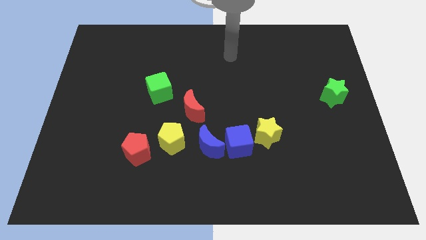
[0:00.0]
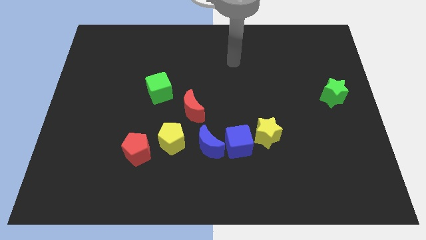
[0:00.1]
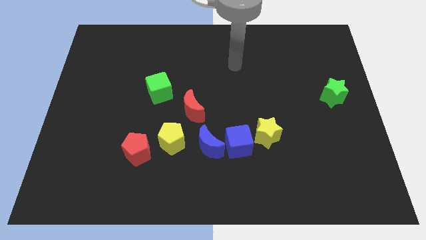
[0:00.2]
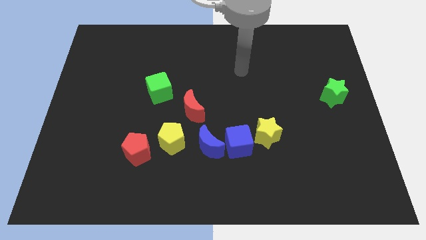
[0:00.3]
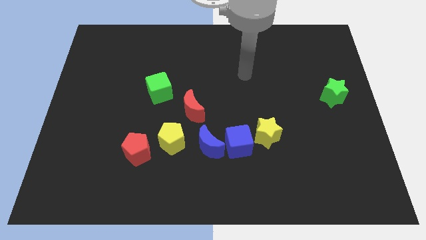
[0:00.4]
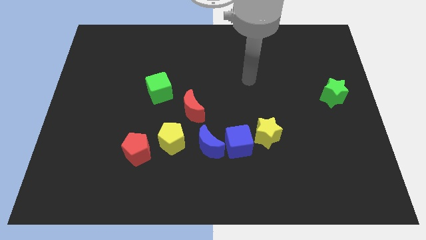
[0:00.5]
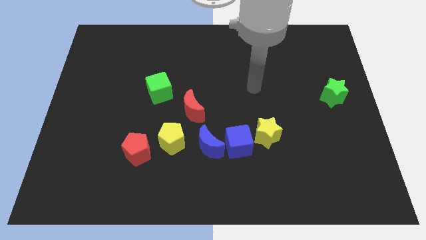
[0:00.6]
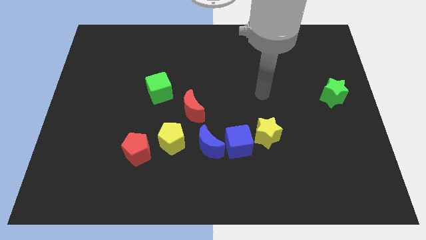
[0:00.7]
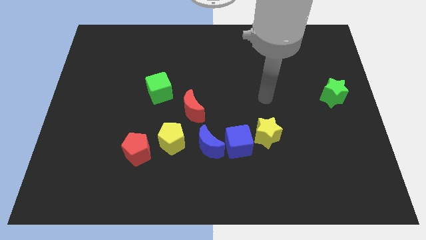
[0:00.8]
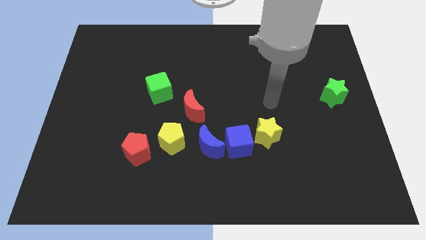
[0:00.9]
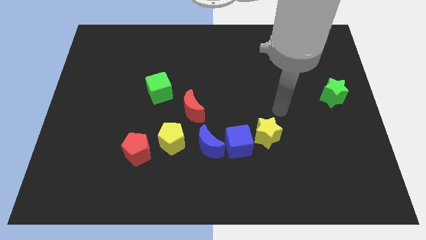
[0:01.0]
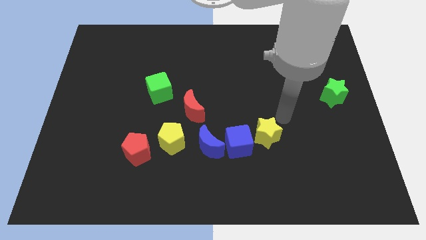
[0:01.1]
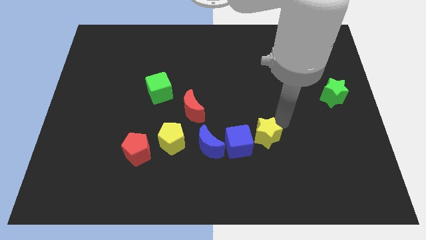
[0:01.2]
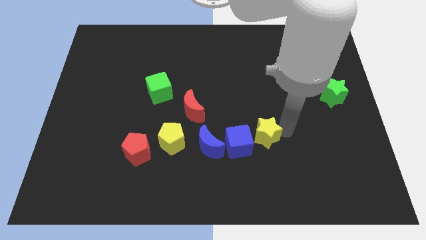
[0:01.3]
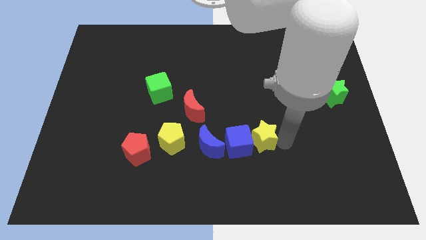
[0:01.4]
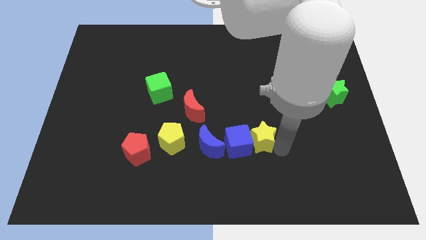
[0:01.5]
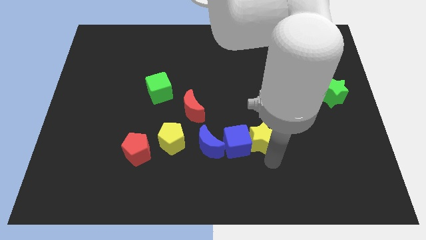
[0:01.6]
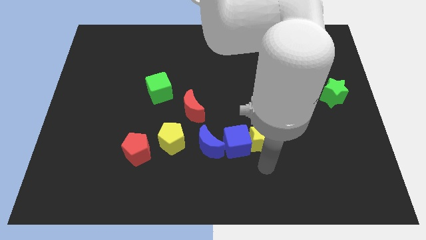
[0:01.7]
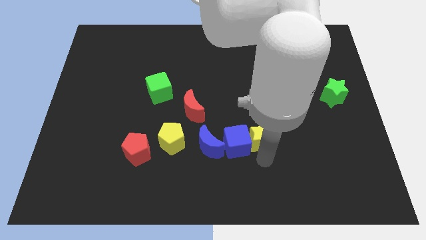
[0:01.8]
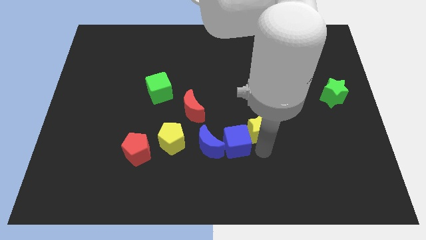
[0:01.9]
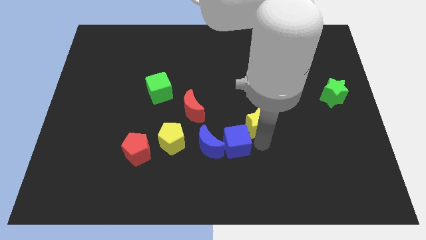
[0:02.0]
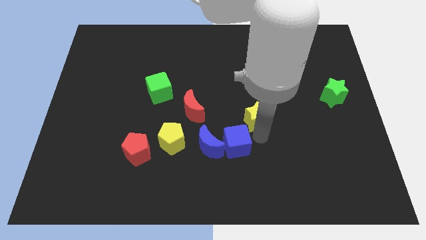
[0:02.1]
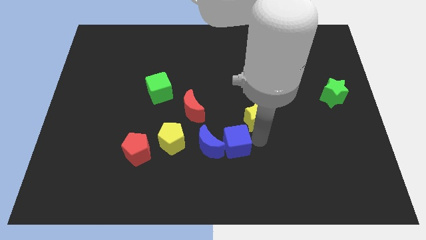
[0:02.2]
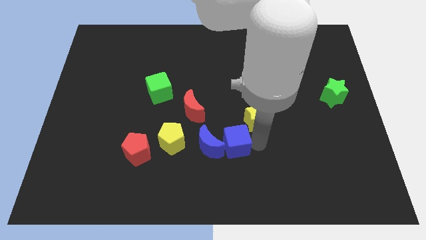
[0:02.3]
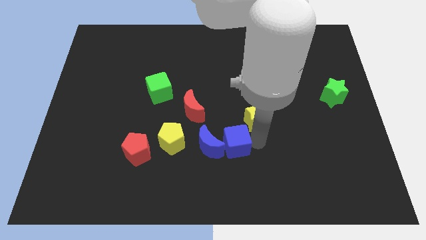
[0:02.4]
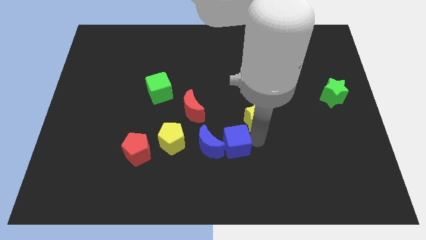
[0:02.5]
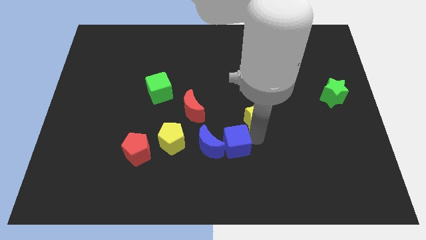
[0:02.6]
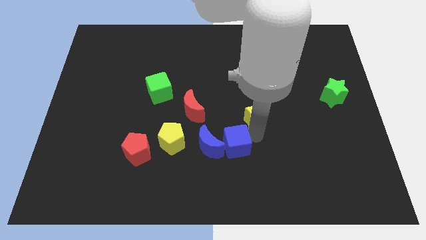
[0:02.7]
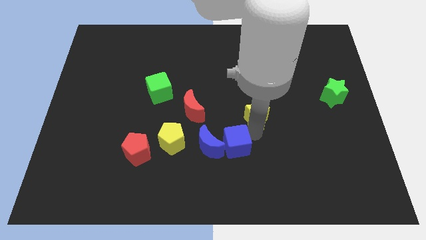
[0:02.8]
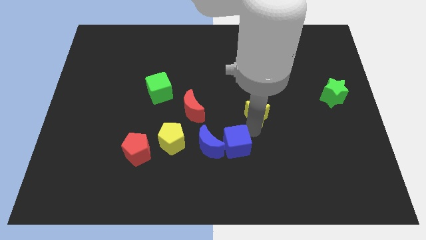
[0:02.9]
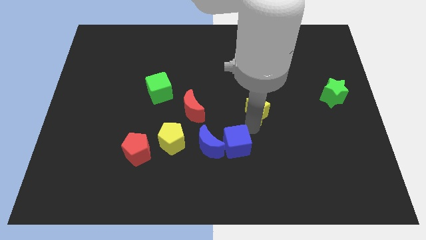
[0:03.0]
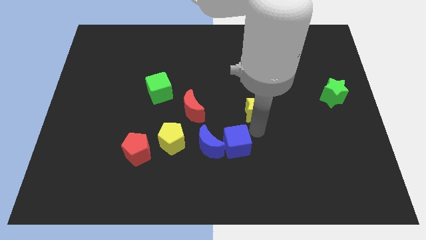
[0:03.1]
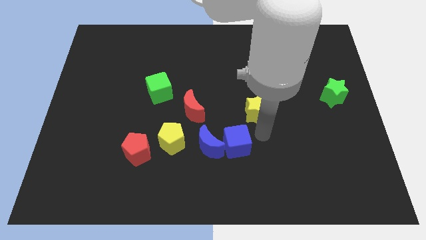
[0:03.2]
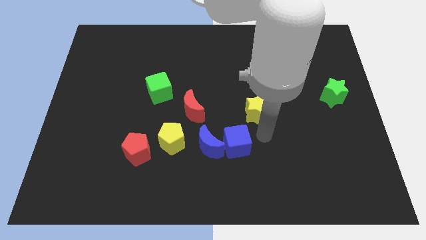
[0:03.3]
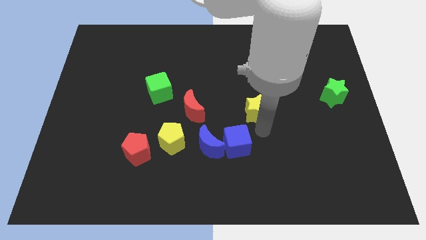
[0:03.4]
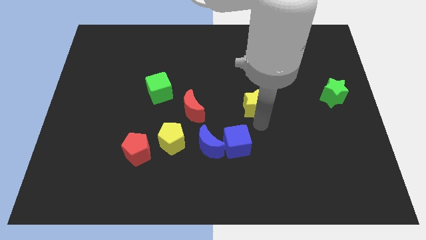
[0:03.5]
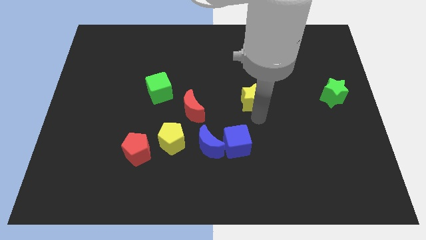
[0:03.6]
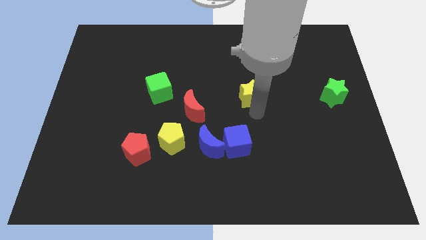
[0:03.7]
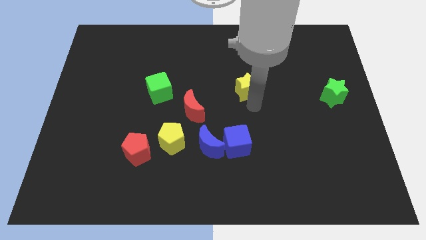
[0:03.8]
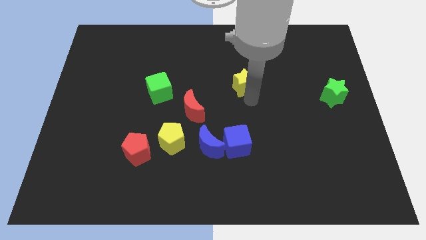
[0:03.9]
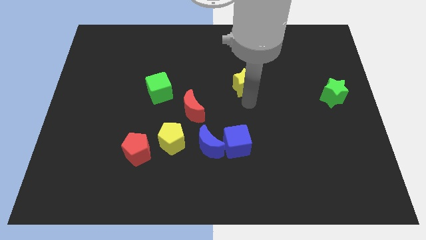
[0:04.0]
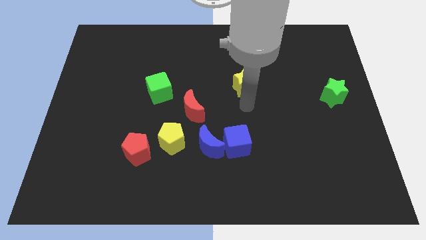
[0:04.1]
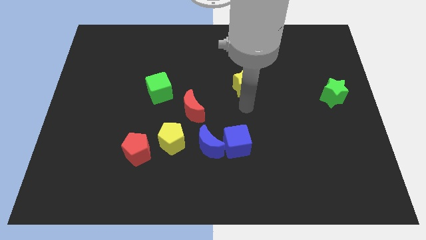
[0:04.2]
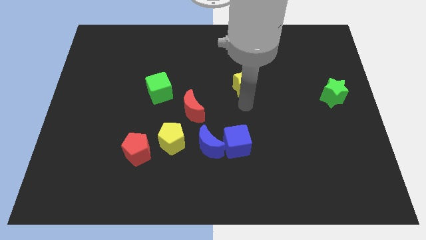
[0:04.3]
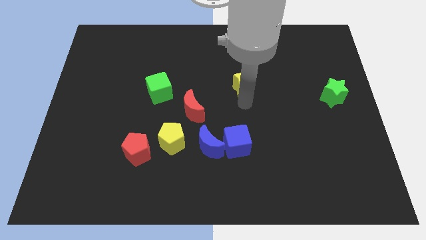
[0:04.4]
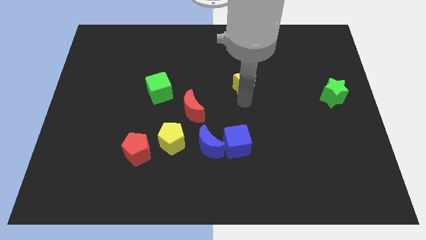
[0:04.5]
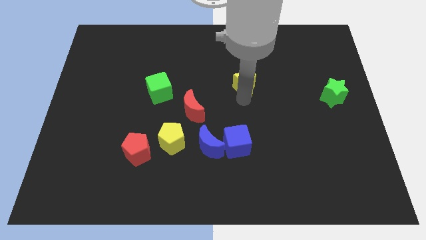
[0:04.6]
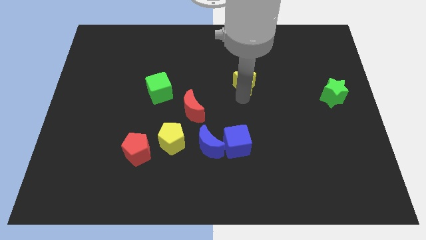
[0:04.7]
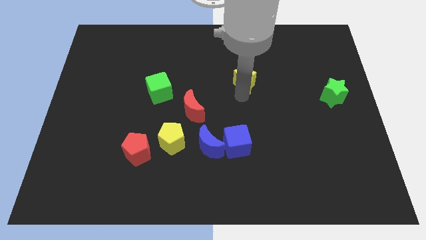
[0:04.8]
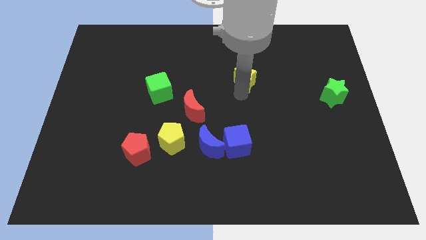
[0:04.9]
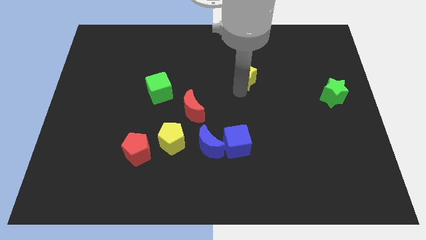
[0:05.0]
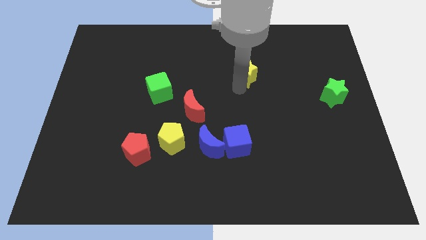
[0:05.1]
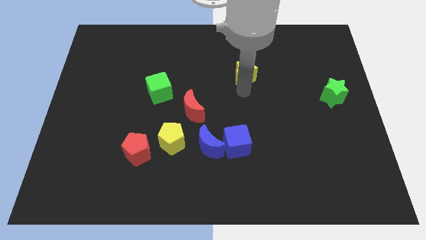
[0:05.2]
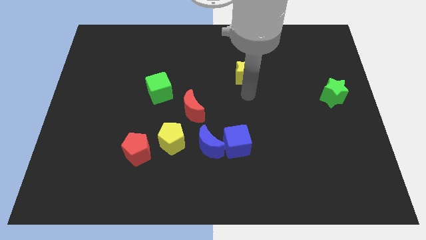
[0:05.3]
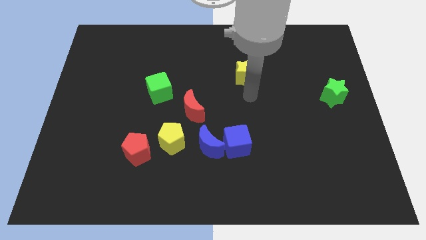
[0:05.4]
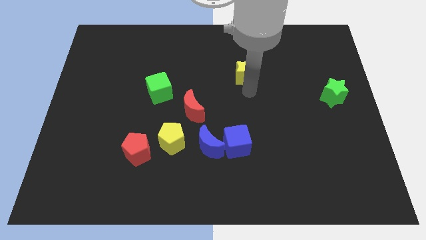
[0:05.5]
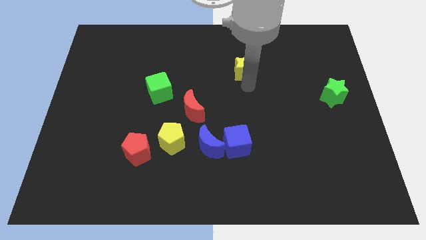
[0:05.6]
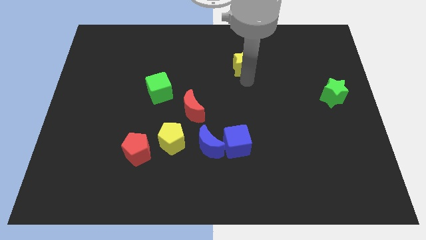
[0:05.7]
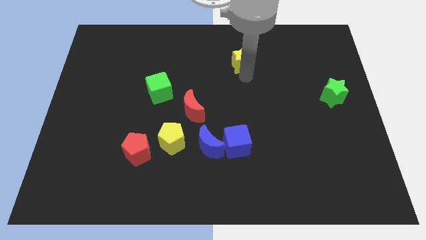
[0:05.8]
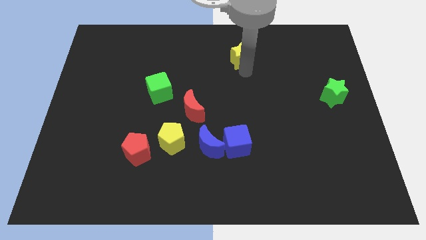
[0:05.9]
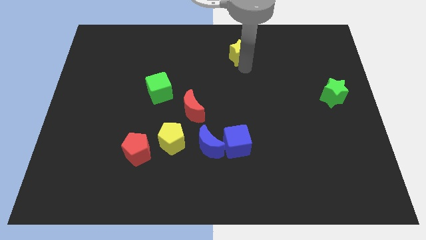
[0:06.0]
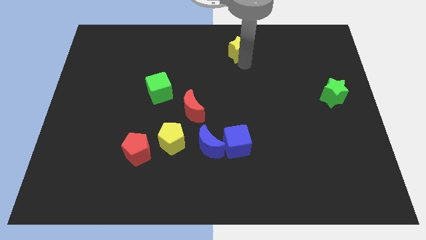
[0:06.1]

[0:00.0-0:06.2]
push the yellow star to the towards your base
